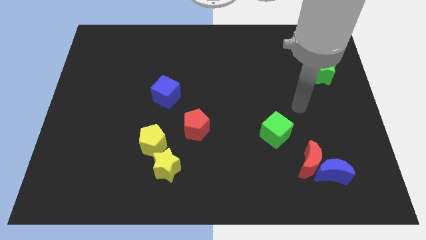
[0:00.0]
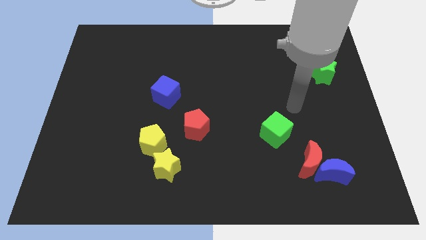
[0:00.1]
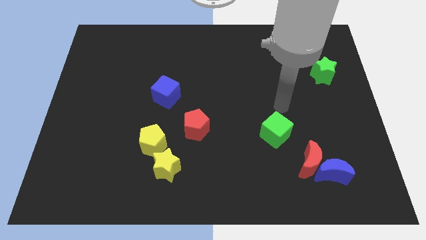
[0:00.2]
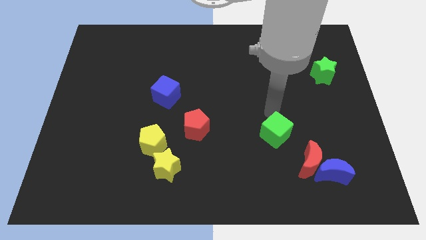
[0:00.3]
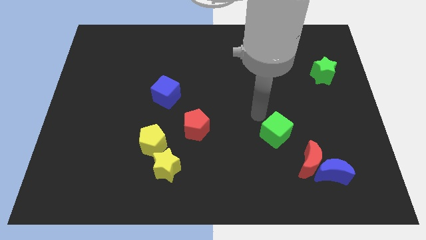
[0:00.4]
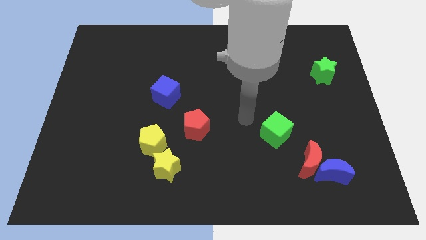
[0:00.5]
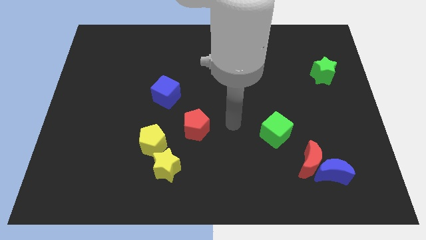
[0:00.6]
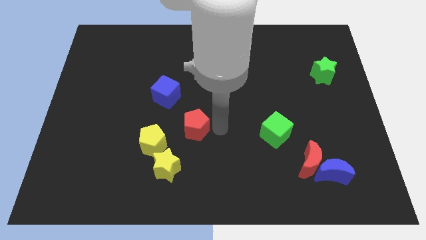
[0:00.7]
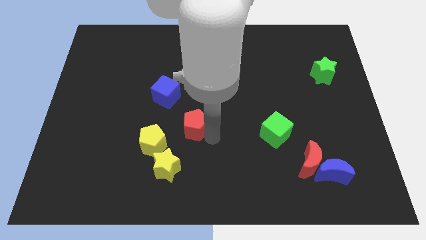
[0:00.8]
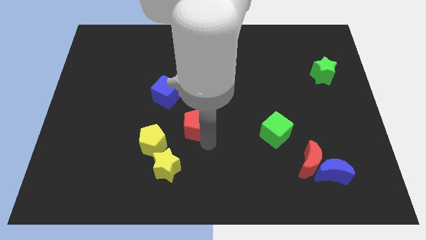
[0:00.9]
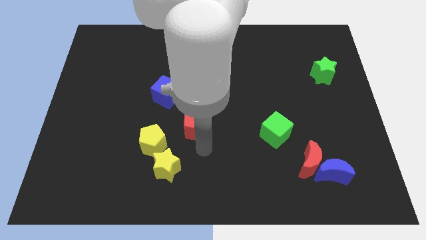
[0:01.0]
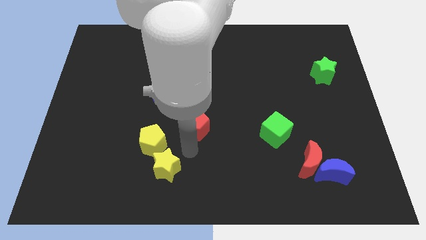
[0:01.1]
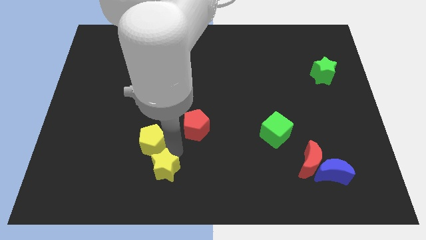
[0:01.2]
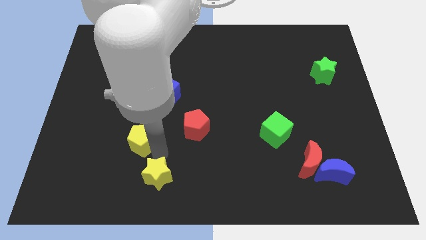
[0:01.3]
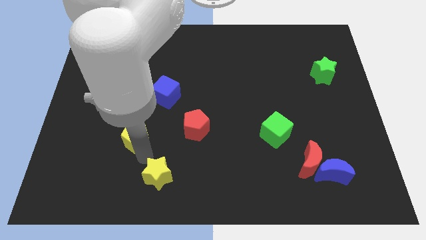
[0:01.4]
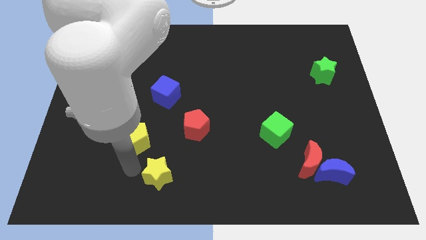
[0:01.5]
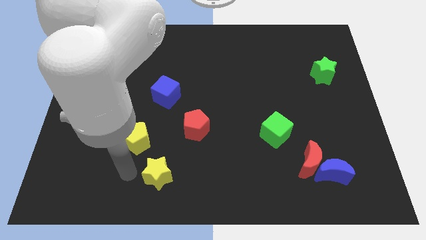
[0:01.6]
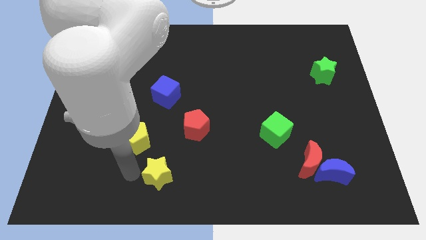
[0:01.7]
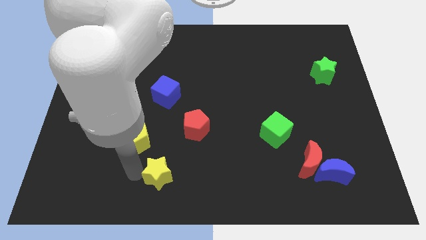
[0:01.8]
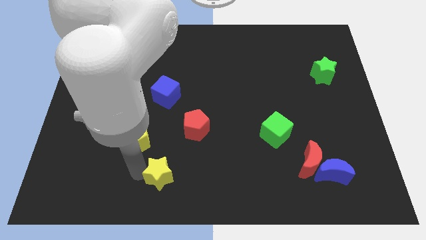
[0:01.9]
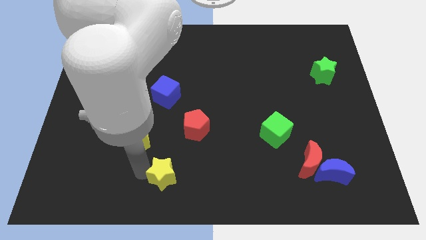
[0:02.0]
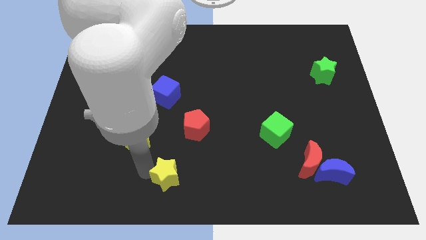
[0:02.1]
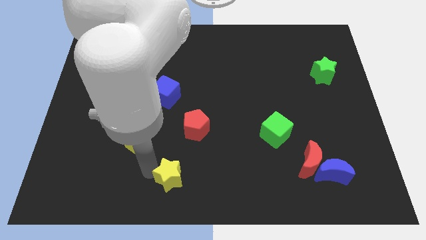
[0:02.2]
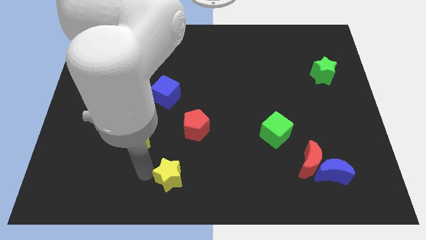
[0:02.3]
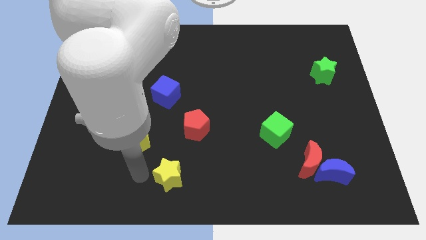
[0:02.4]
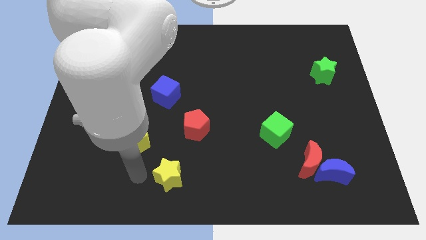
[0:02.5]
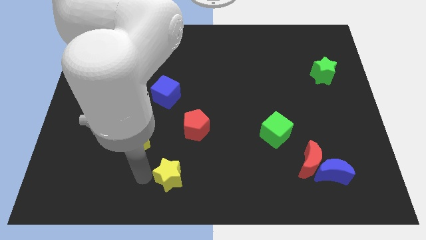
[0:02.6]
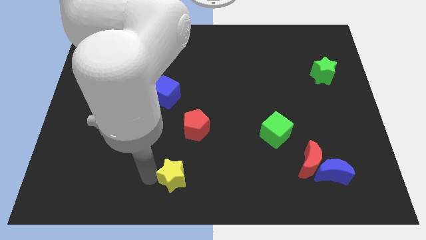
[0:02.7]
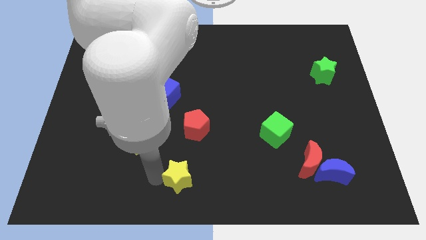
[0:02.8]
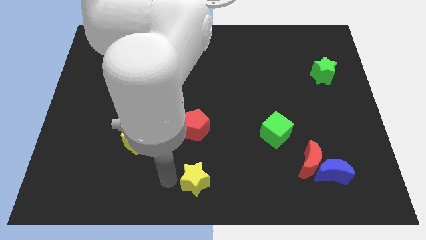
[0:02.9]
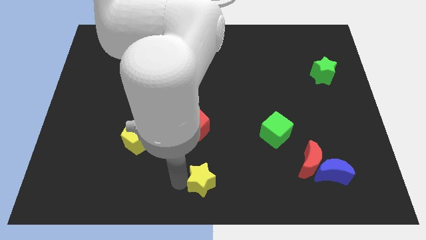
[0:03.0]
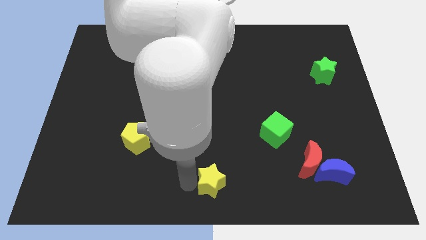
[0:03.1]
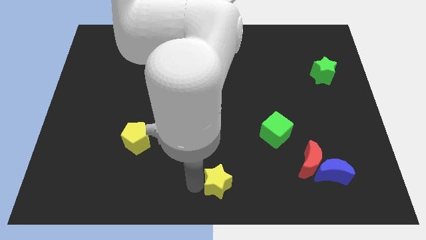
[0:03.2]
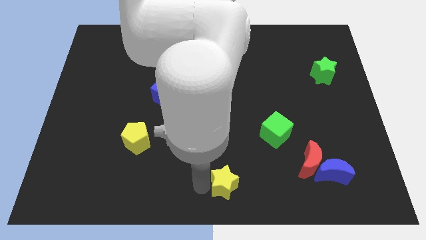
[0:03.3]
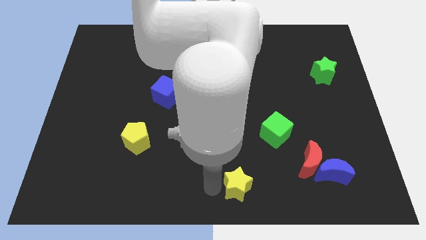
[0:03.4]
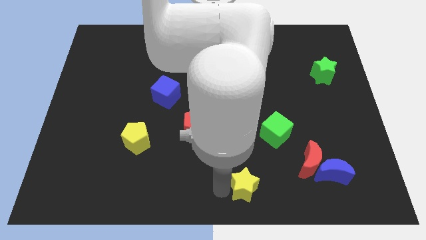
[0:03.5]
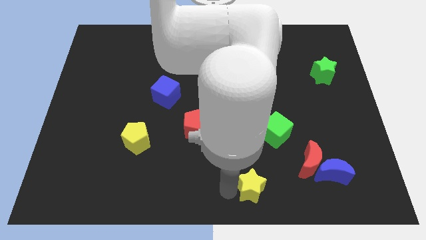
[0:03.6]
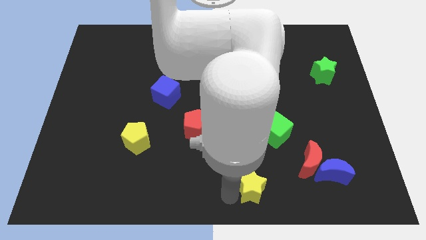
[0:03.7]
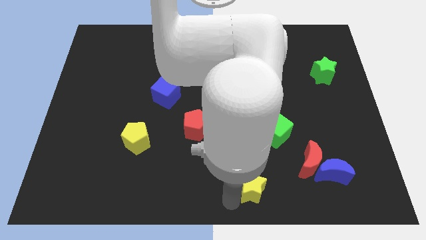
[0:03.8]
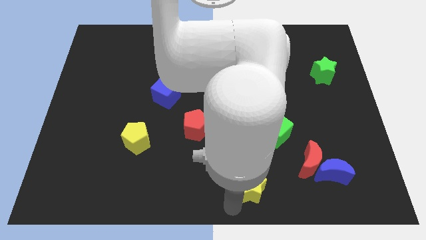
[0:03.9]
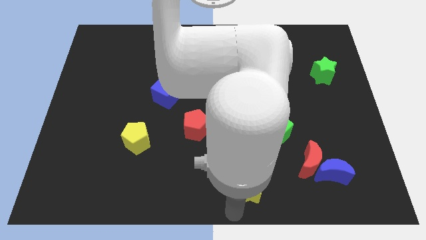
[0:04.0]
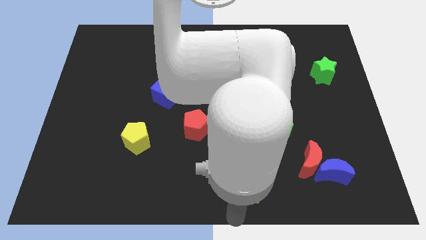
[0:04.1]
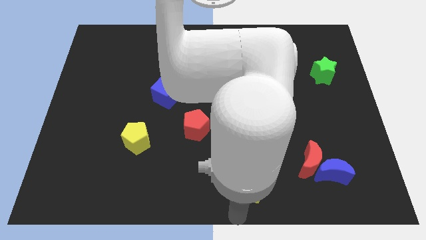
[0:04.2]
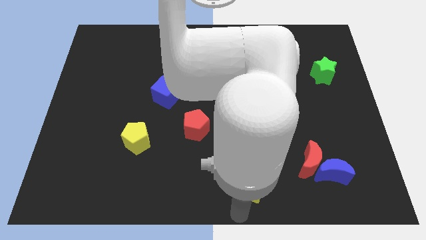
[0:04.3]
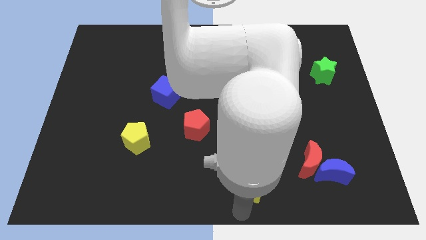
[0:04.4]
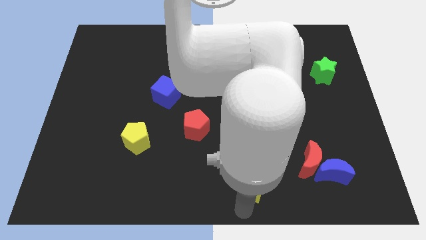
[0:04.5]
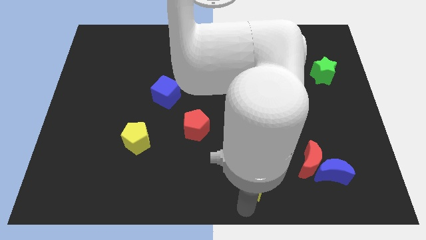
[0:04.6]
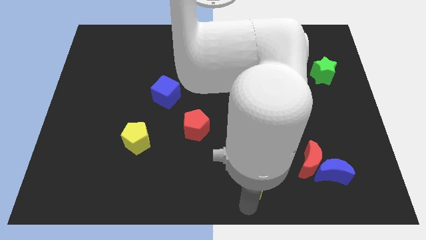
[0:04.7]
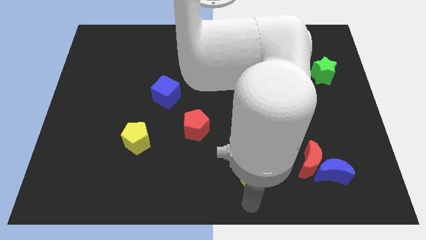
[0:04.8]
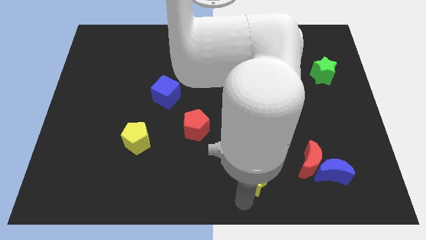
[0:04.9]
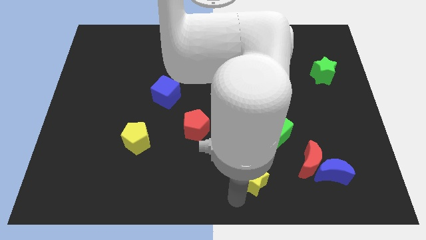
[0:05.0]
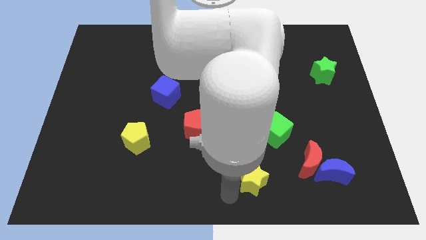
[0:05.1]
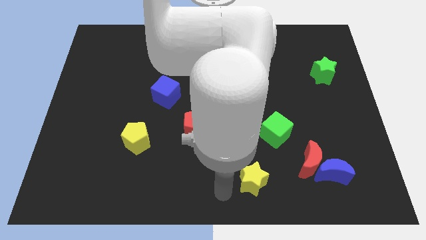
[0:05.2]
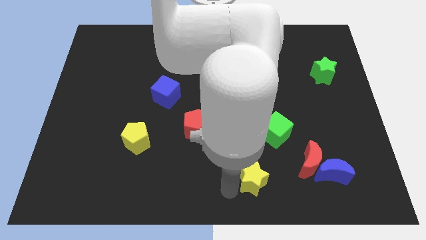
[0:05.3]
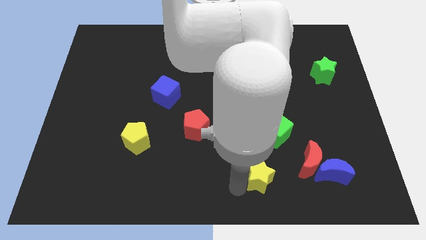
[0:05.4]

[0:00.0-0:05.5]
push the yellow star to the left of the blue moon

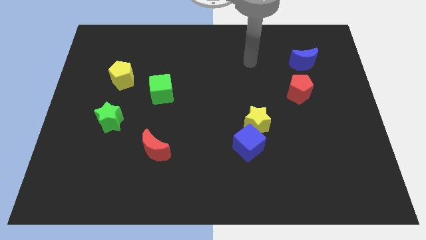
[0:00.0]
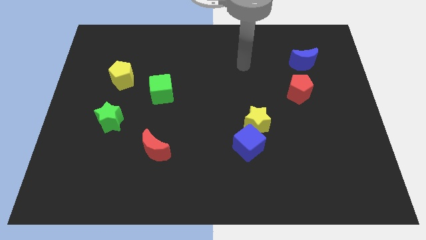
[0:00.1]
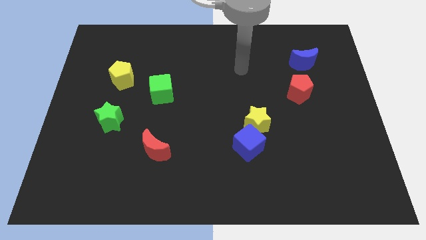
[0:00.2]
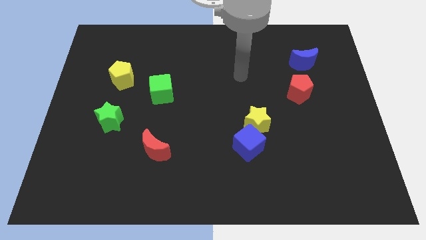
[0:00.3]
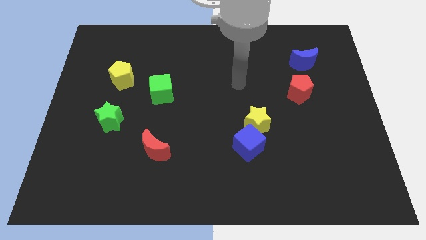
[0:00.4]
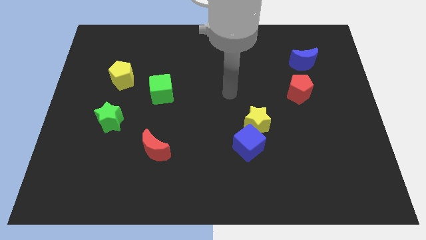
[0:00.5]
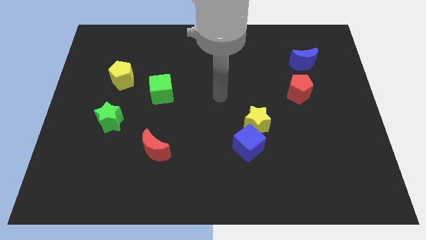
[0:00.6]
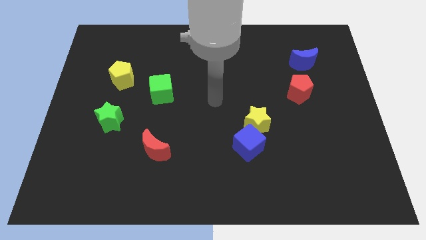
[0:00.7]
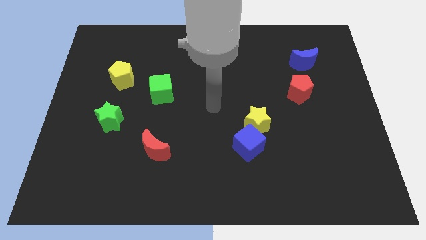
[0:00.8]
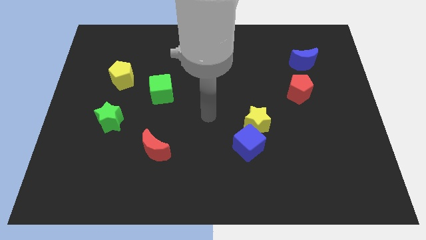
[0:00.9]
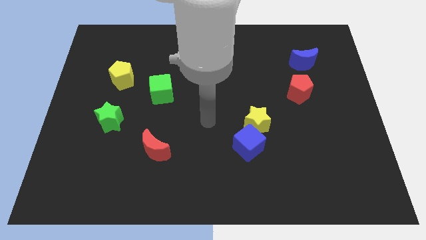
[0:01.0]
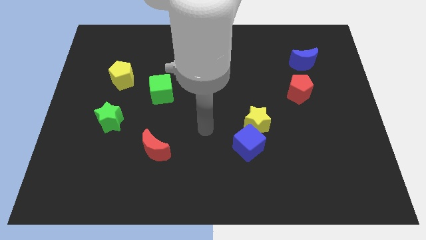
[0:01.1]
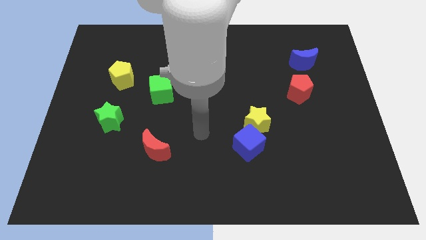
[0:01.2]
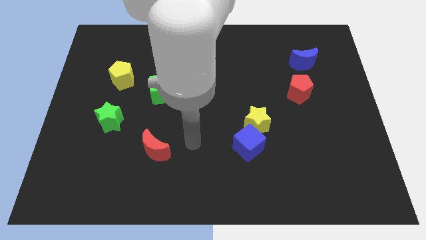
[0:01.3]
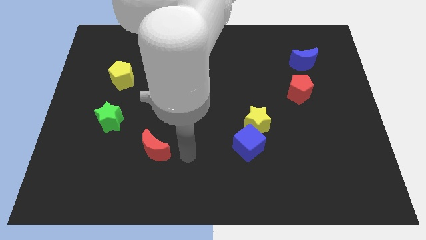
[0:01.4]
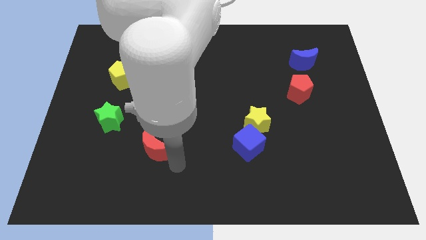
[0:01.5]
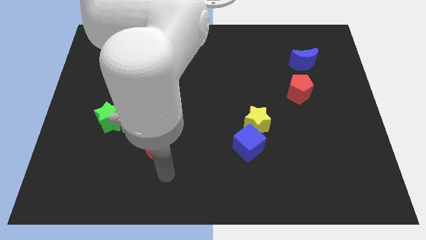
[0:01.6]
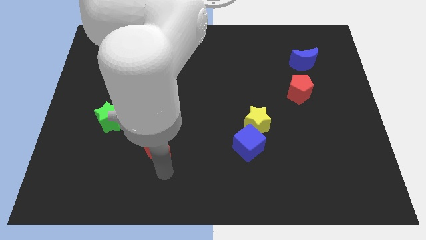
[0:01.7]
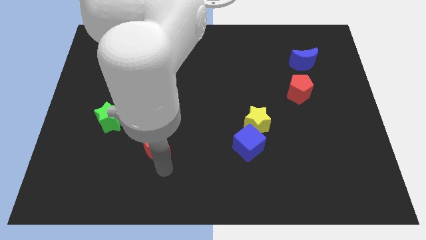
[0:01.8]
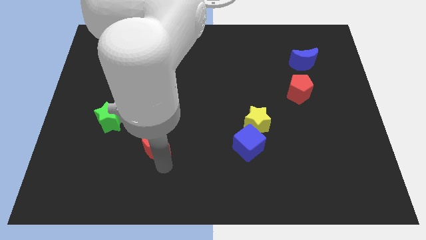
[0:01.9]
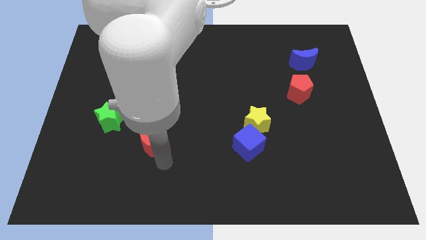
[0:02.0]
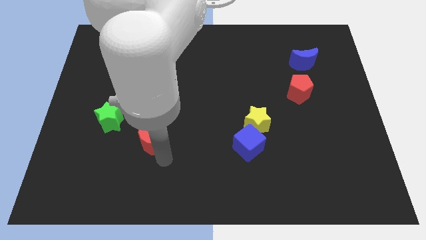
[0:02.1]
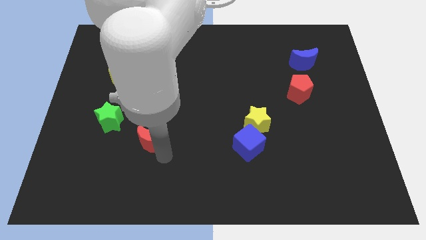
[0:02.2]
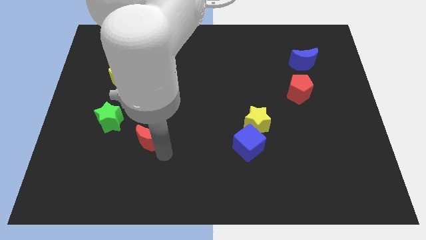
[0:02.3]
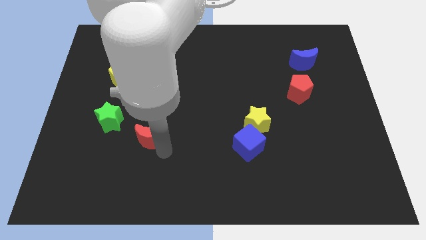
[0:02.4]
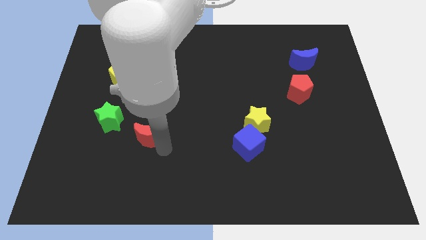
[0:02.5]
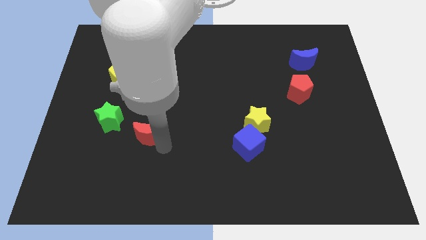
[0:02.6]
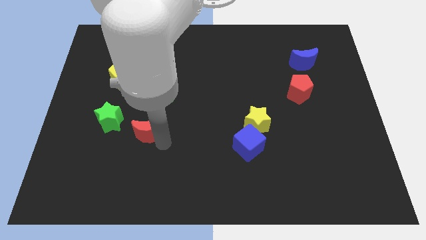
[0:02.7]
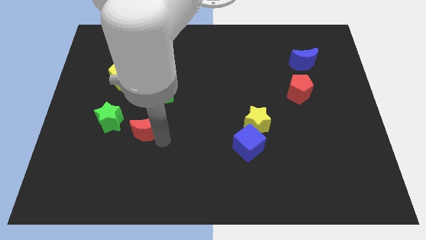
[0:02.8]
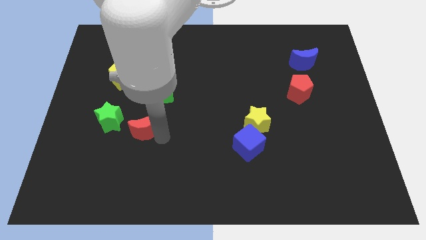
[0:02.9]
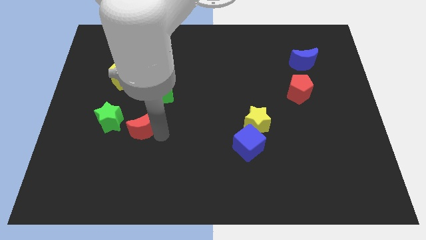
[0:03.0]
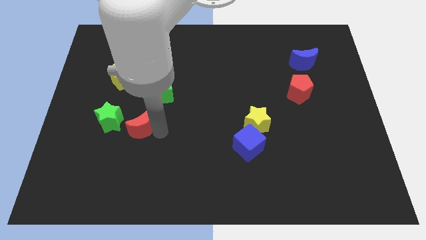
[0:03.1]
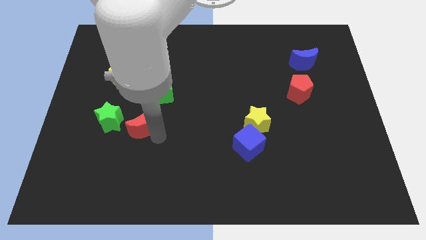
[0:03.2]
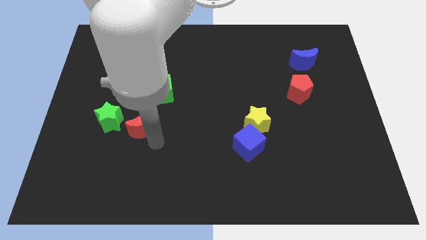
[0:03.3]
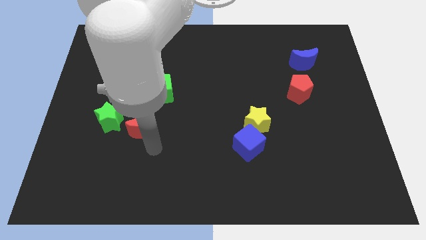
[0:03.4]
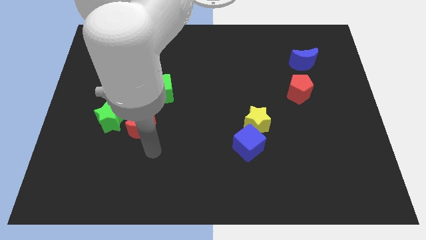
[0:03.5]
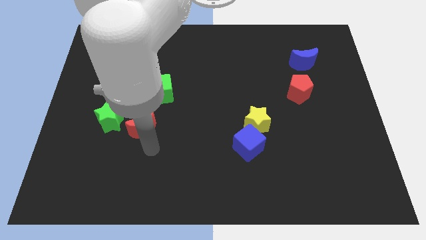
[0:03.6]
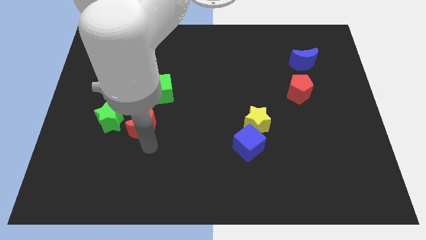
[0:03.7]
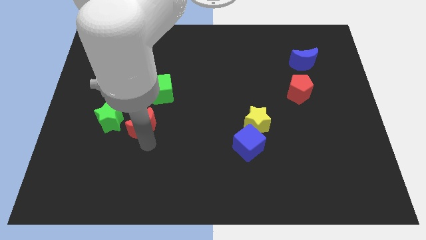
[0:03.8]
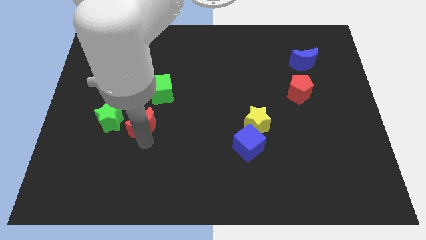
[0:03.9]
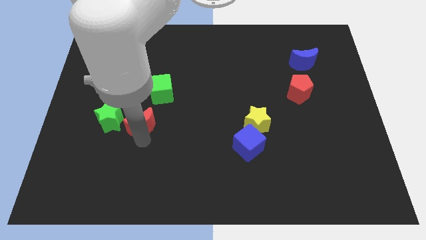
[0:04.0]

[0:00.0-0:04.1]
move the red moon to the bottom left side of the green cube
